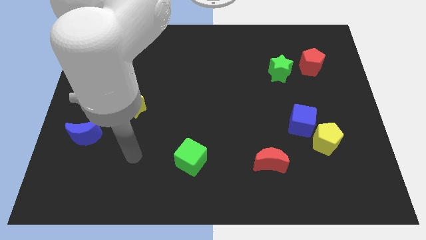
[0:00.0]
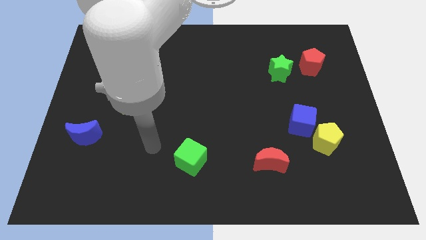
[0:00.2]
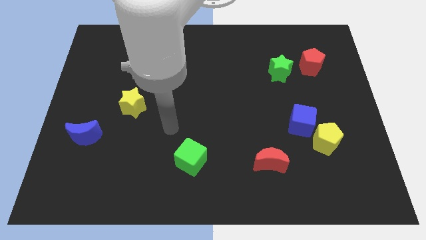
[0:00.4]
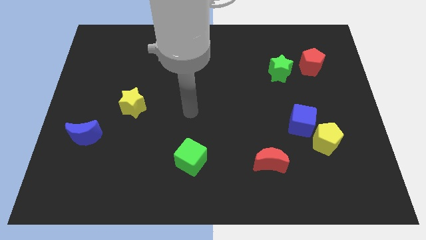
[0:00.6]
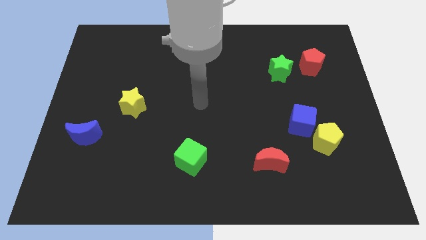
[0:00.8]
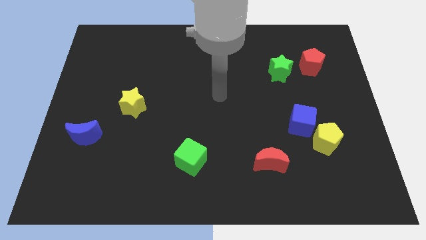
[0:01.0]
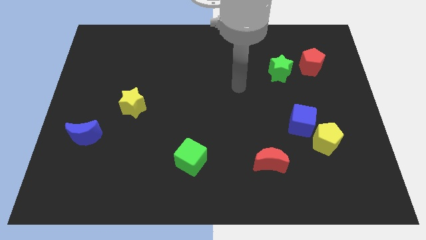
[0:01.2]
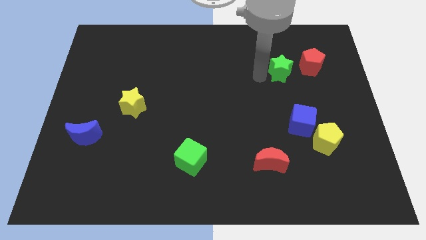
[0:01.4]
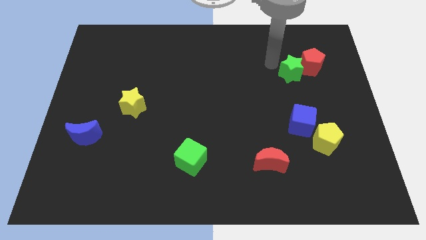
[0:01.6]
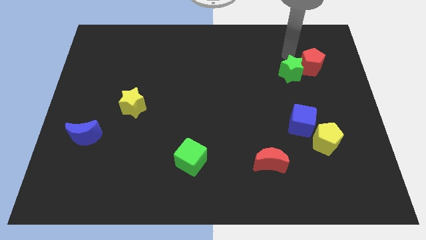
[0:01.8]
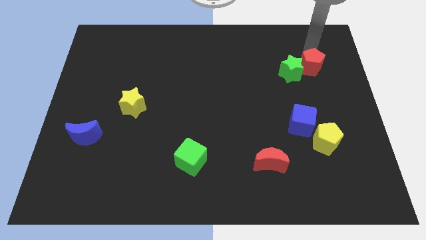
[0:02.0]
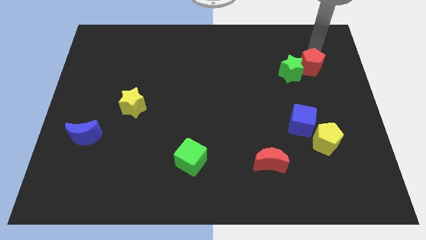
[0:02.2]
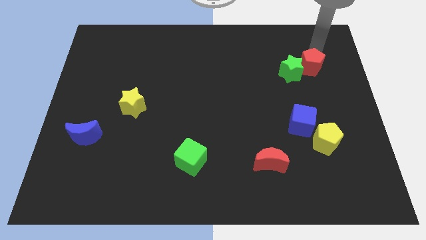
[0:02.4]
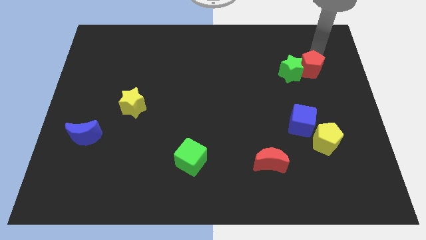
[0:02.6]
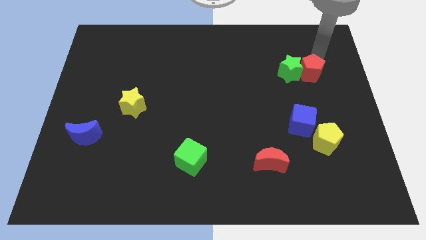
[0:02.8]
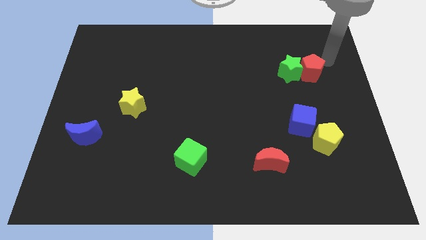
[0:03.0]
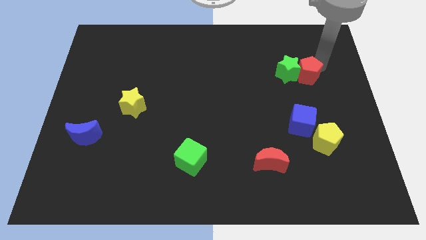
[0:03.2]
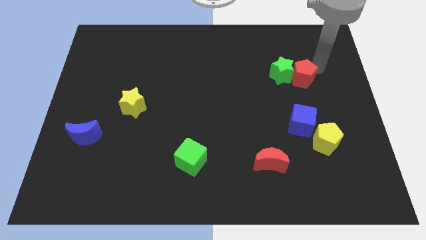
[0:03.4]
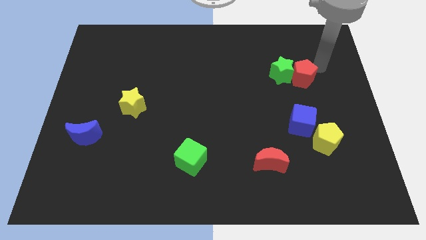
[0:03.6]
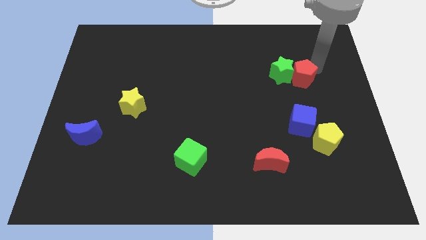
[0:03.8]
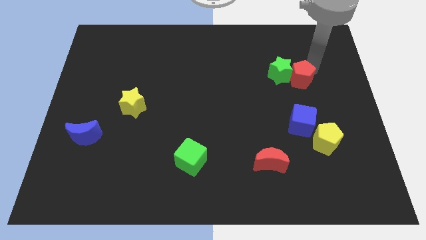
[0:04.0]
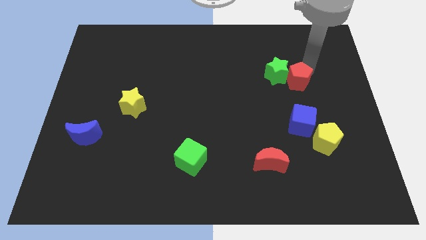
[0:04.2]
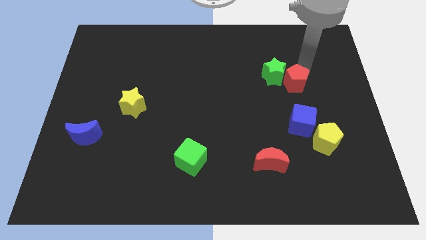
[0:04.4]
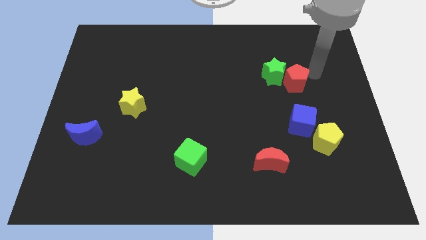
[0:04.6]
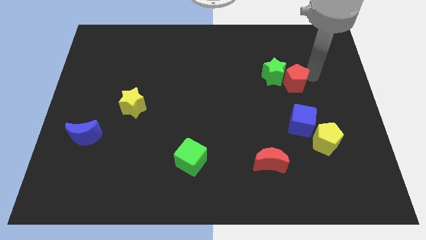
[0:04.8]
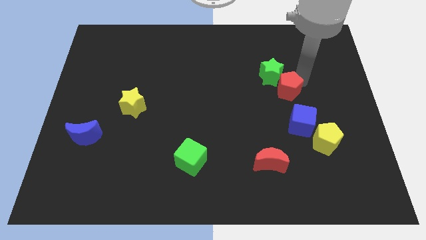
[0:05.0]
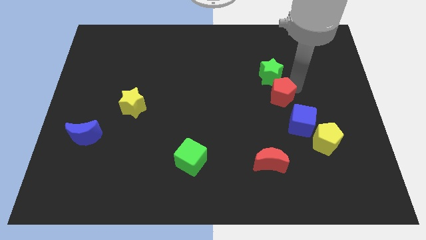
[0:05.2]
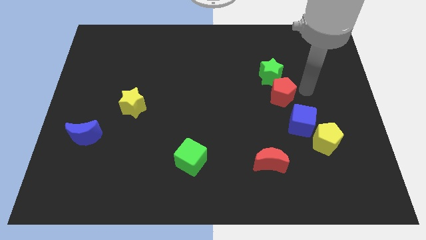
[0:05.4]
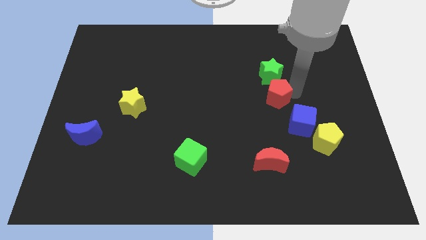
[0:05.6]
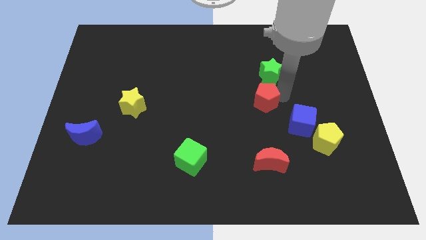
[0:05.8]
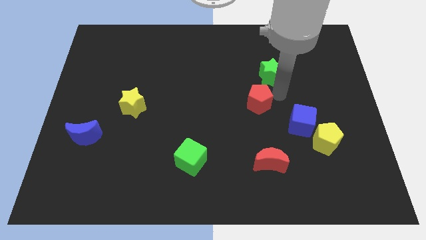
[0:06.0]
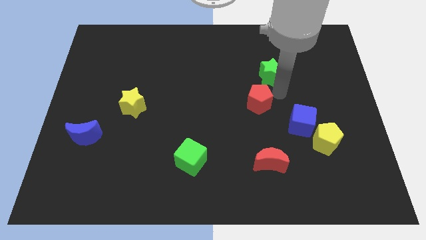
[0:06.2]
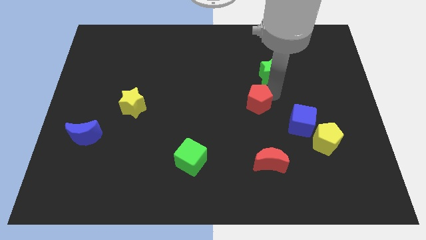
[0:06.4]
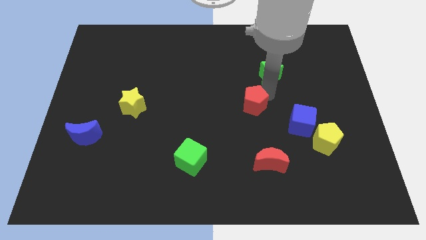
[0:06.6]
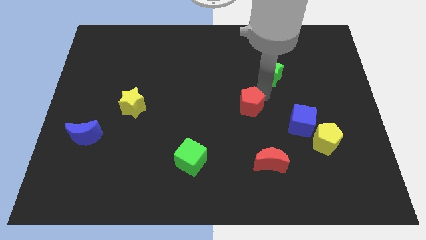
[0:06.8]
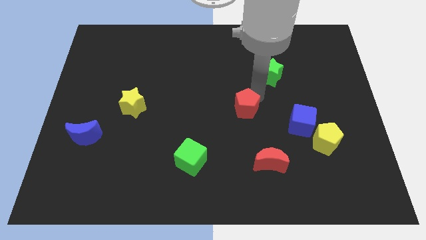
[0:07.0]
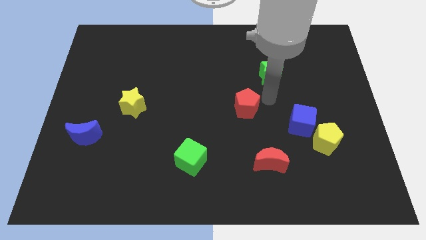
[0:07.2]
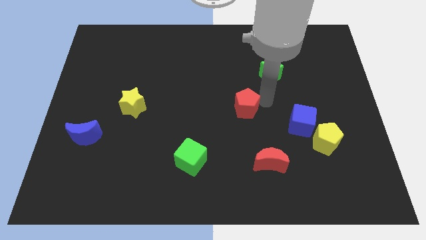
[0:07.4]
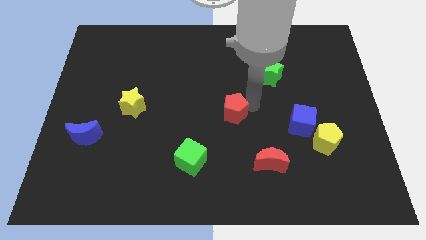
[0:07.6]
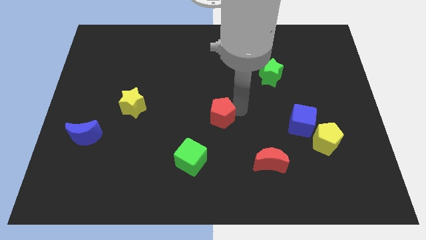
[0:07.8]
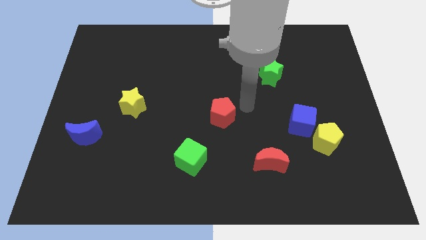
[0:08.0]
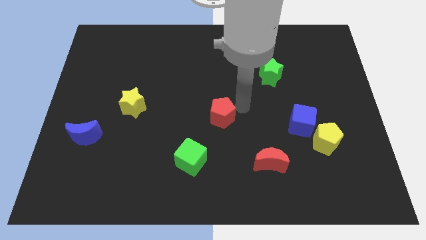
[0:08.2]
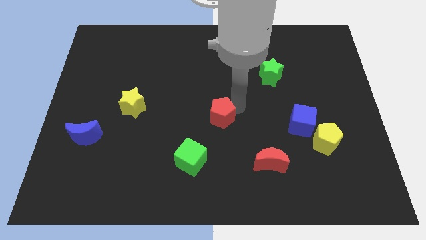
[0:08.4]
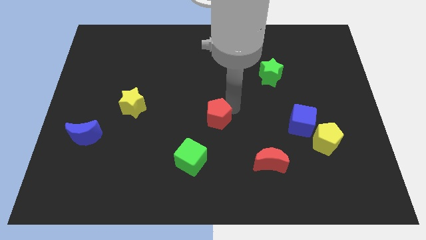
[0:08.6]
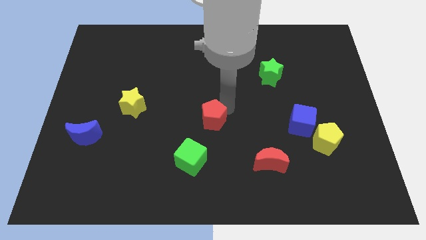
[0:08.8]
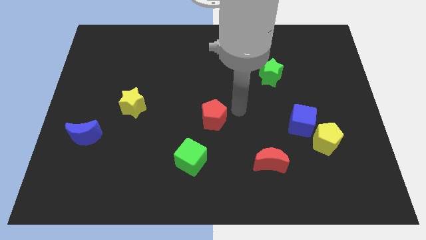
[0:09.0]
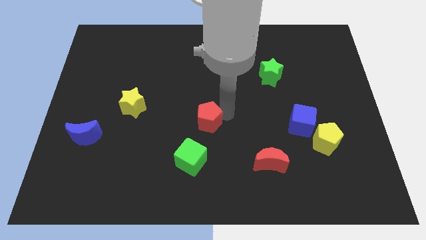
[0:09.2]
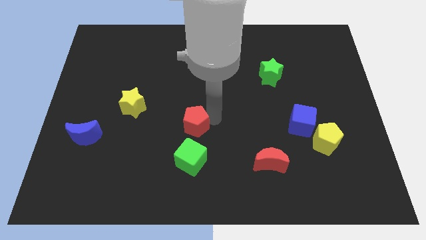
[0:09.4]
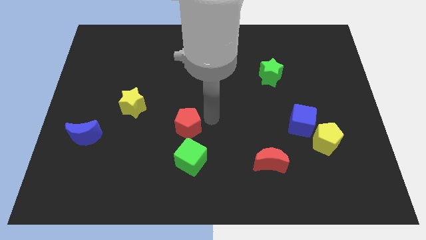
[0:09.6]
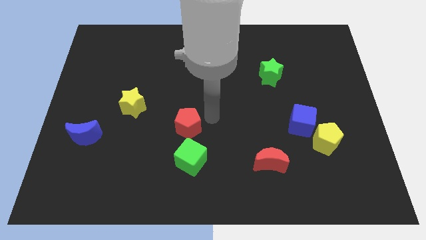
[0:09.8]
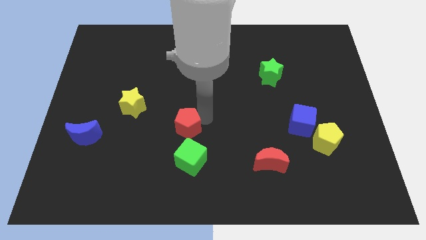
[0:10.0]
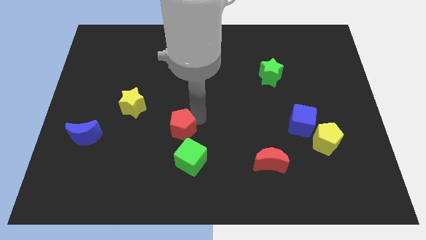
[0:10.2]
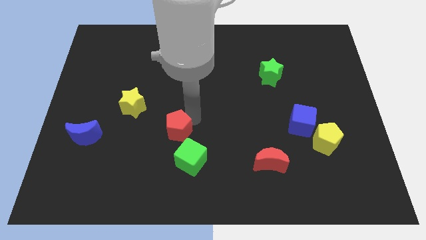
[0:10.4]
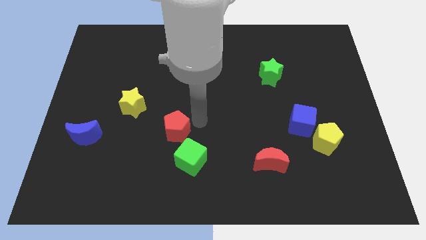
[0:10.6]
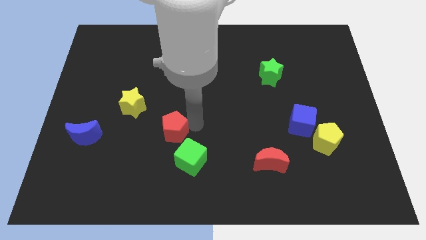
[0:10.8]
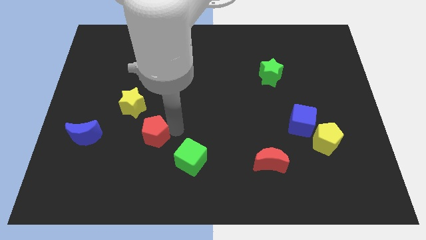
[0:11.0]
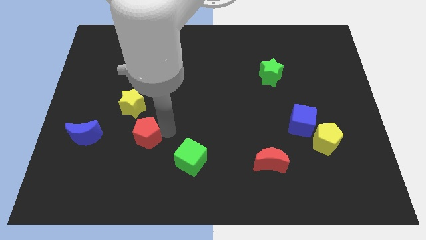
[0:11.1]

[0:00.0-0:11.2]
slide the red pentagon to the bottom side of the yellow star

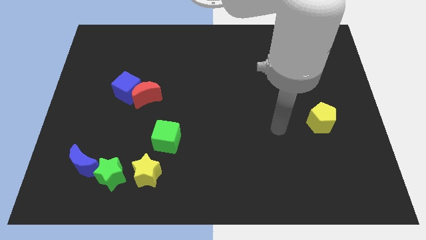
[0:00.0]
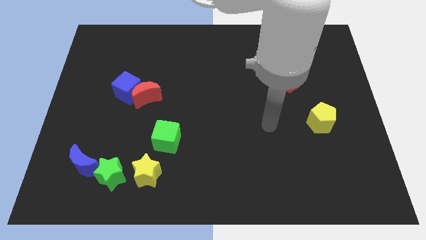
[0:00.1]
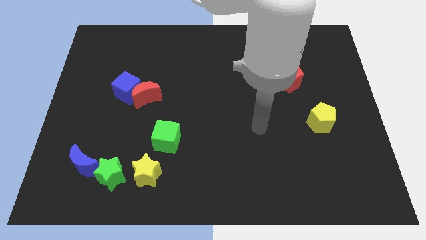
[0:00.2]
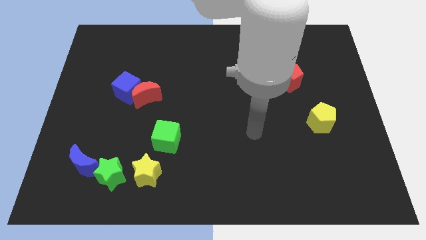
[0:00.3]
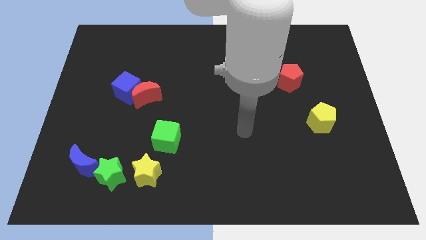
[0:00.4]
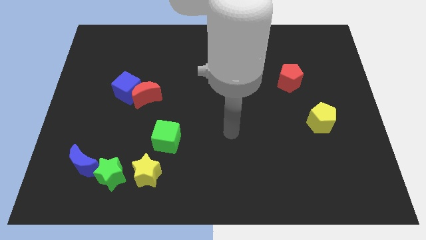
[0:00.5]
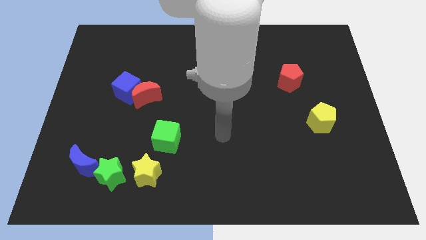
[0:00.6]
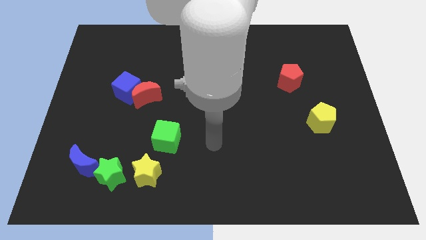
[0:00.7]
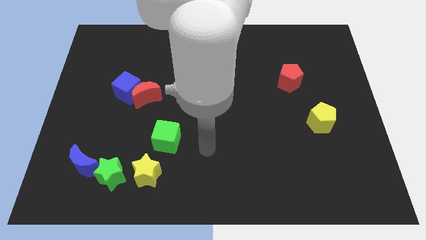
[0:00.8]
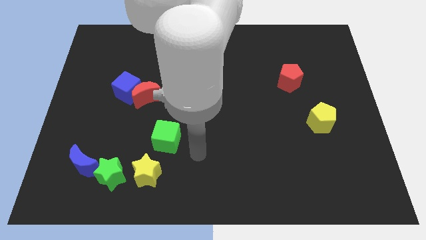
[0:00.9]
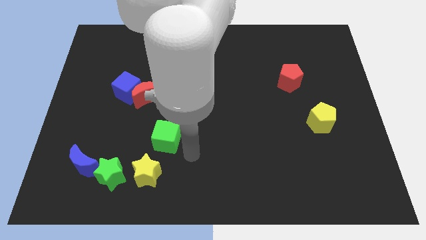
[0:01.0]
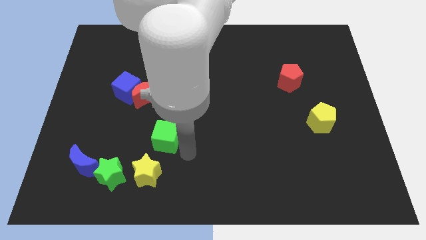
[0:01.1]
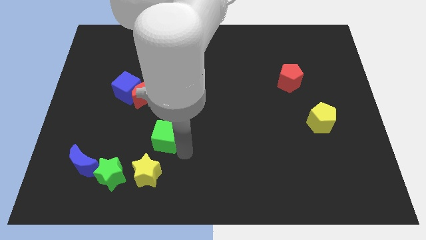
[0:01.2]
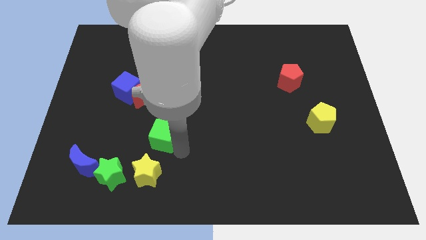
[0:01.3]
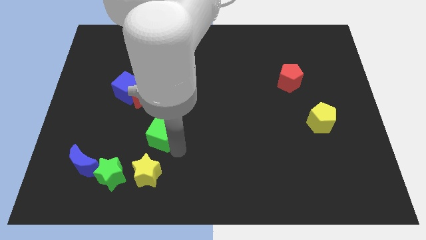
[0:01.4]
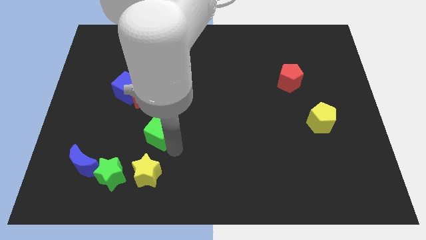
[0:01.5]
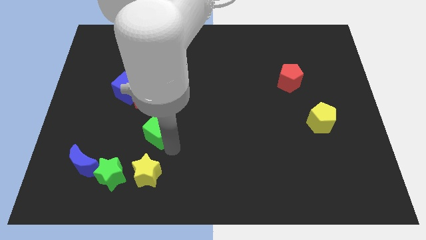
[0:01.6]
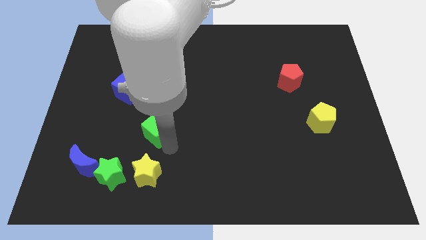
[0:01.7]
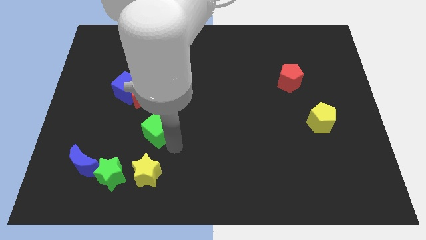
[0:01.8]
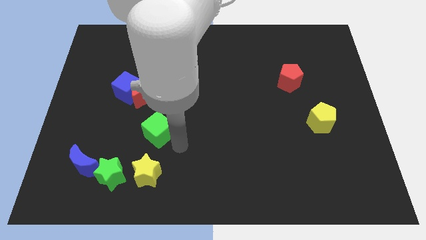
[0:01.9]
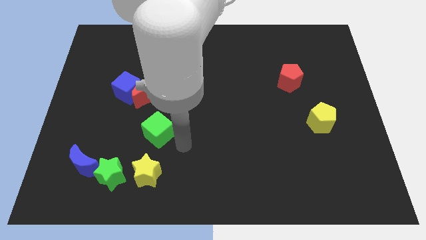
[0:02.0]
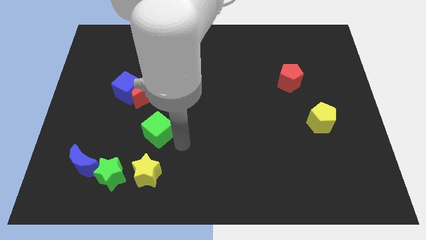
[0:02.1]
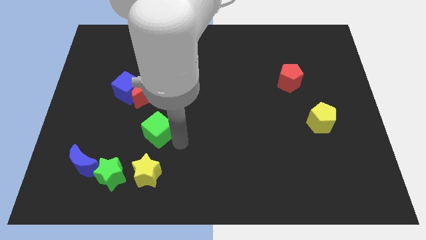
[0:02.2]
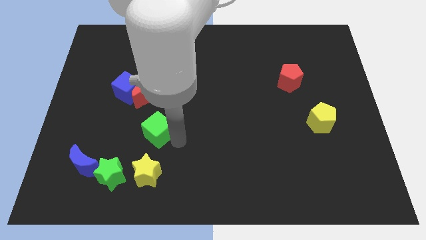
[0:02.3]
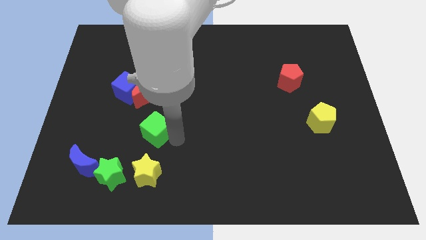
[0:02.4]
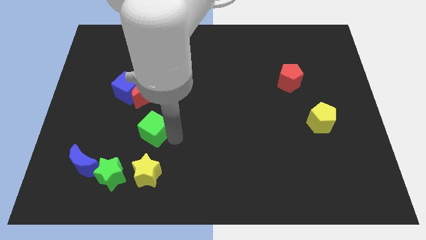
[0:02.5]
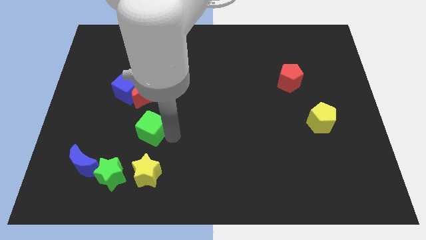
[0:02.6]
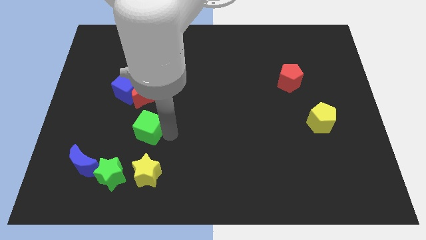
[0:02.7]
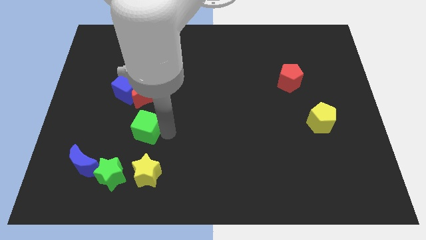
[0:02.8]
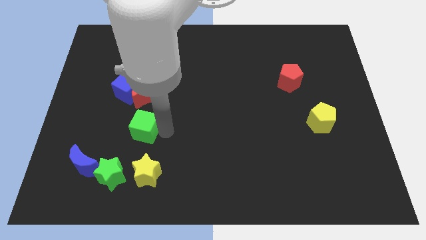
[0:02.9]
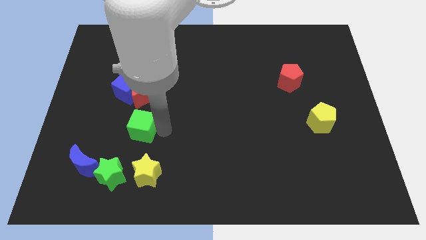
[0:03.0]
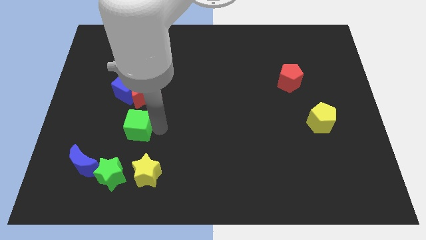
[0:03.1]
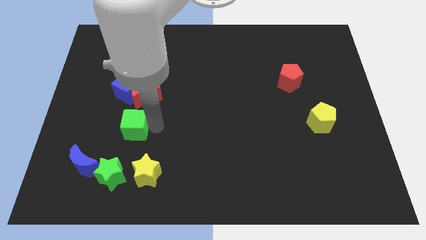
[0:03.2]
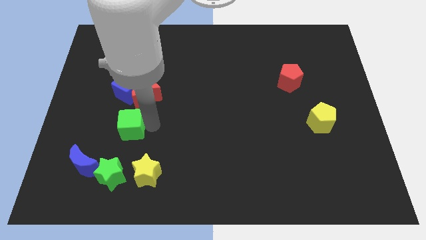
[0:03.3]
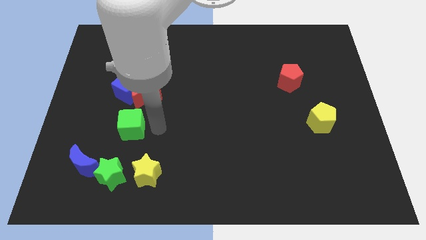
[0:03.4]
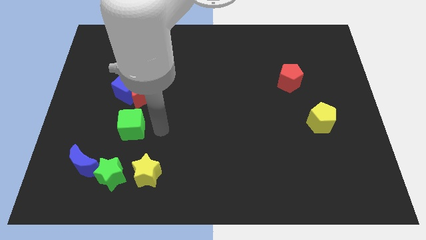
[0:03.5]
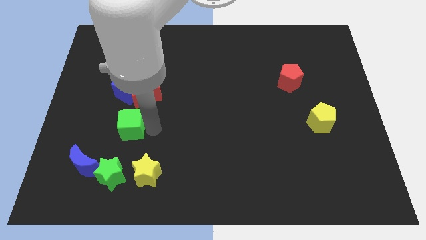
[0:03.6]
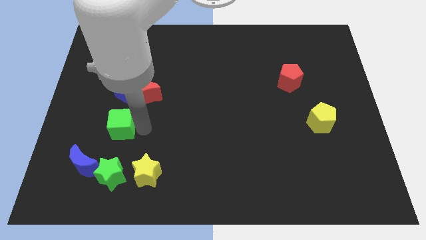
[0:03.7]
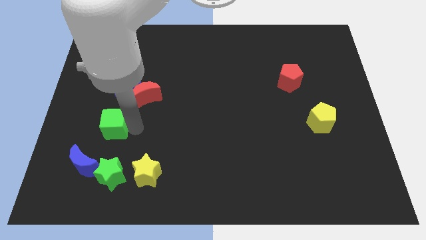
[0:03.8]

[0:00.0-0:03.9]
slide the green cube to the top side of the blue moon
